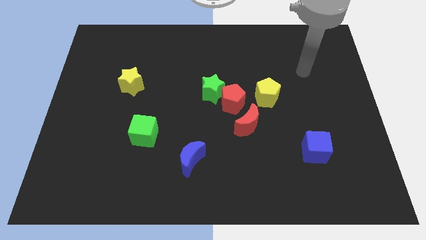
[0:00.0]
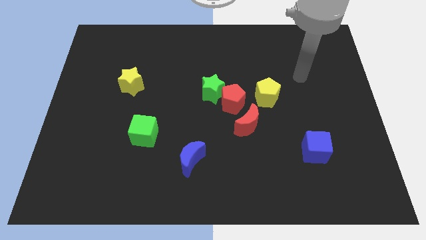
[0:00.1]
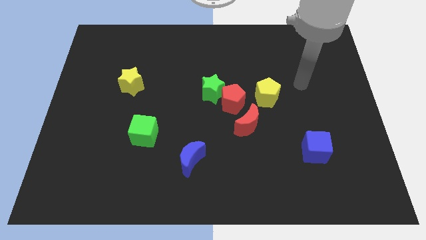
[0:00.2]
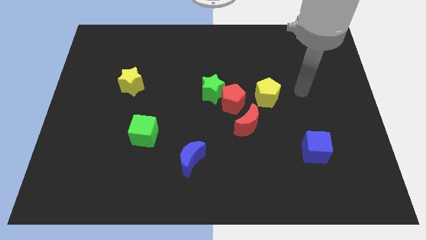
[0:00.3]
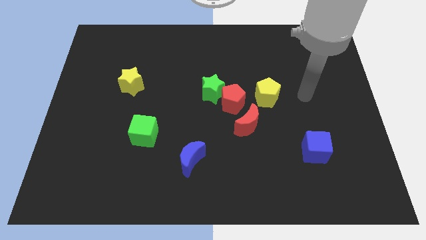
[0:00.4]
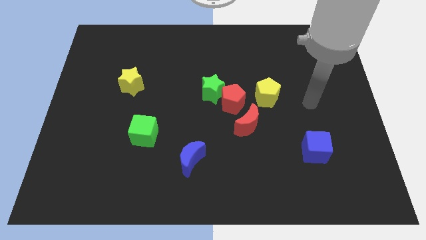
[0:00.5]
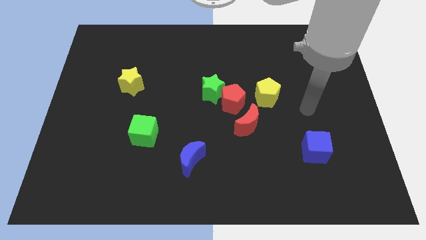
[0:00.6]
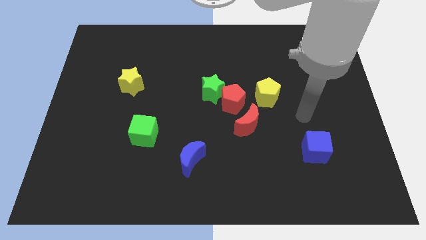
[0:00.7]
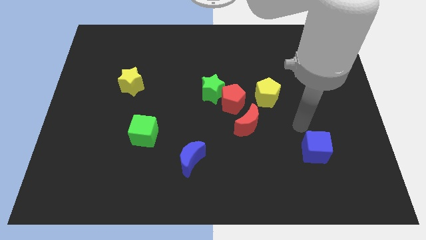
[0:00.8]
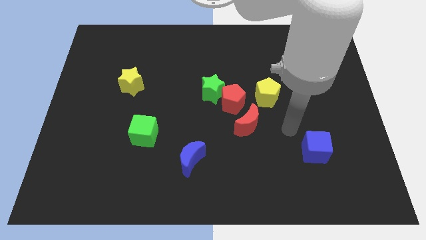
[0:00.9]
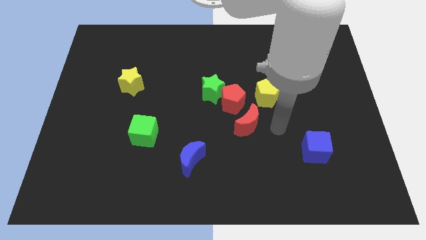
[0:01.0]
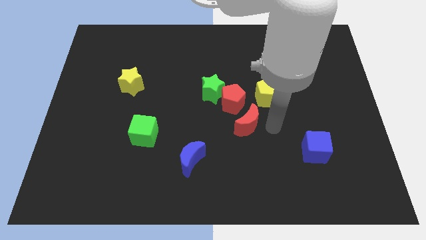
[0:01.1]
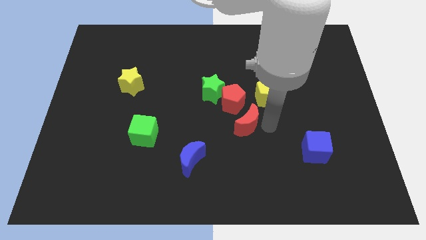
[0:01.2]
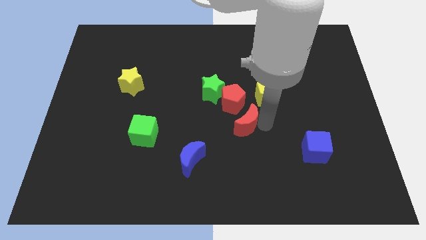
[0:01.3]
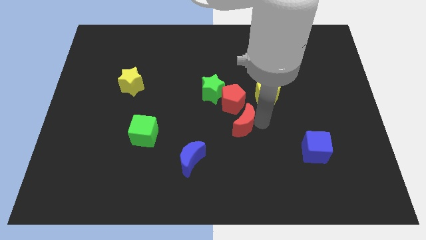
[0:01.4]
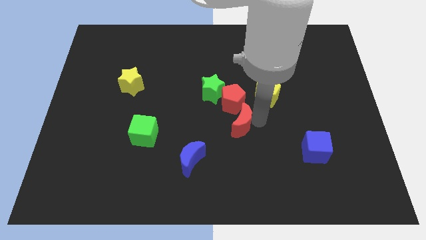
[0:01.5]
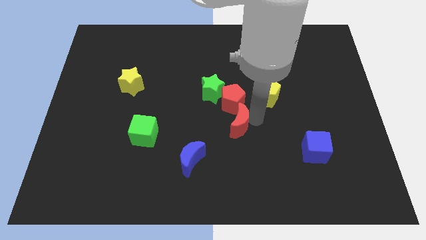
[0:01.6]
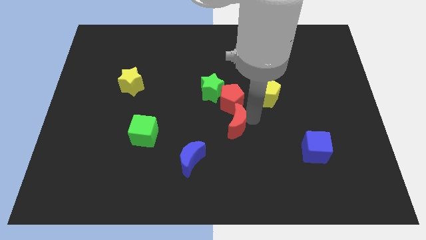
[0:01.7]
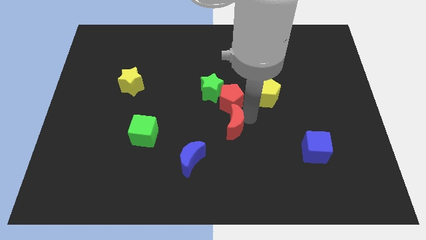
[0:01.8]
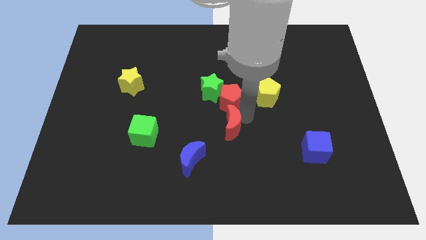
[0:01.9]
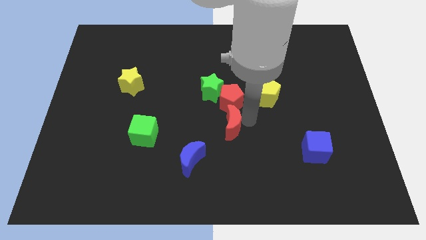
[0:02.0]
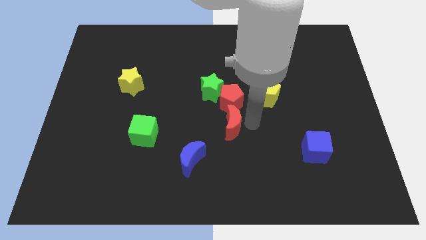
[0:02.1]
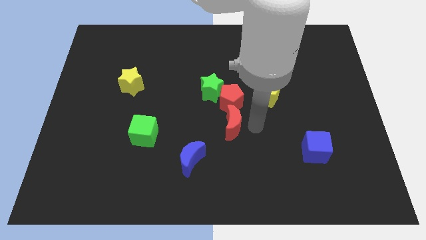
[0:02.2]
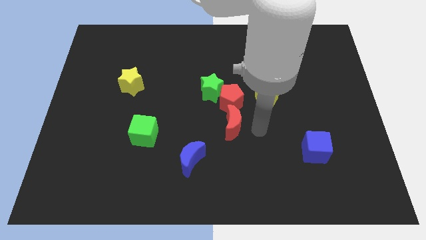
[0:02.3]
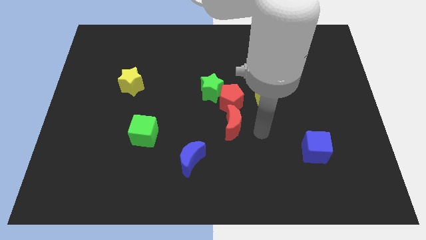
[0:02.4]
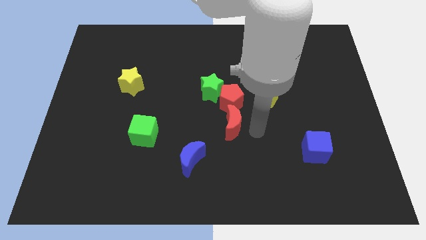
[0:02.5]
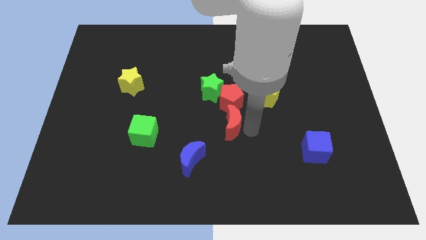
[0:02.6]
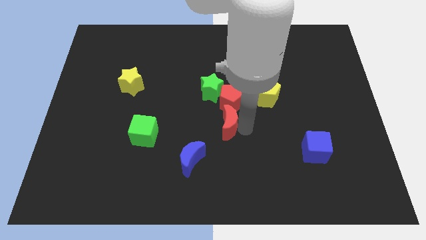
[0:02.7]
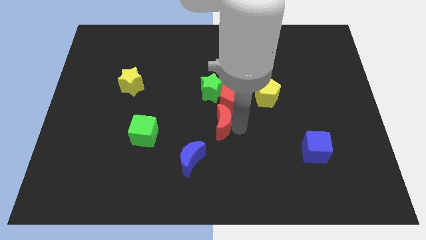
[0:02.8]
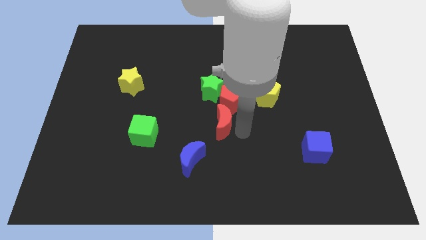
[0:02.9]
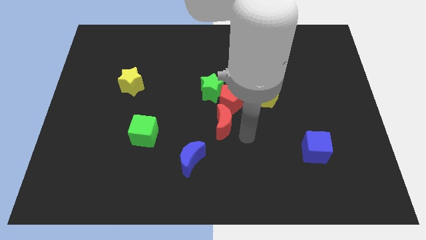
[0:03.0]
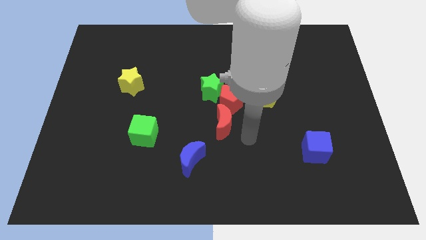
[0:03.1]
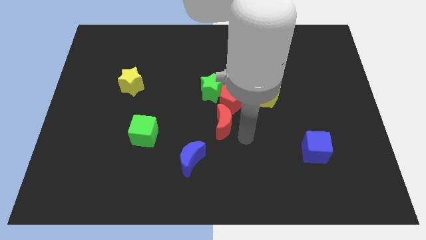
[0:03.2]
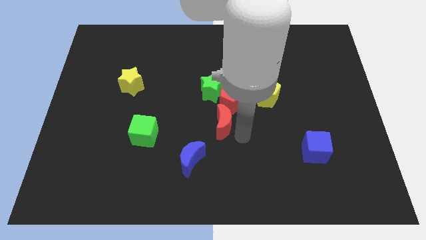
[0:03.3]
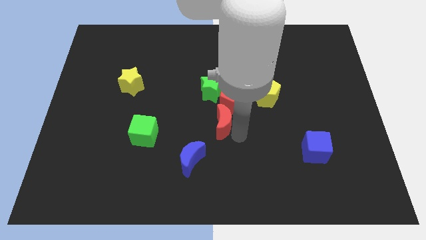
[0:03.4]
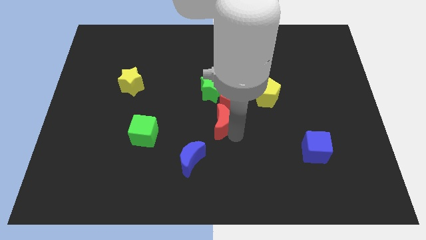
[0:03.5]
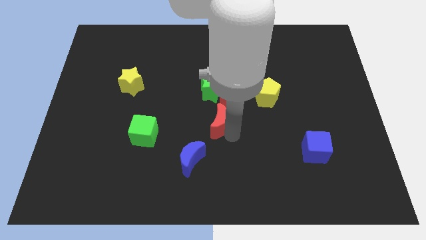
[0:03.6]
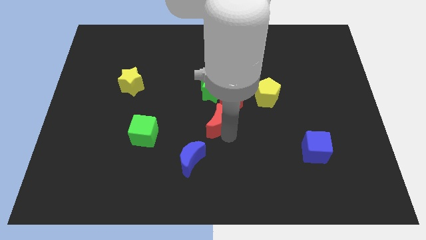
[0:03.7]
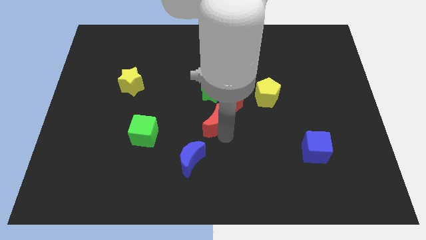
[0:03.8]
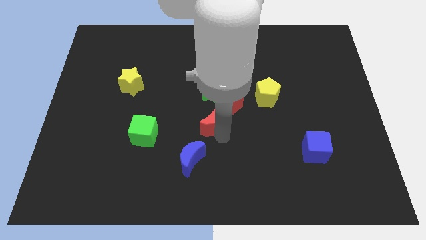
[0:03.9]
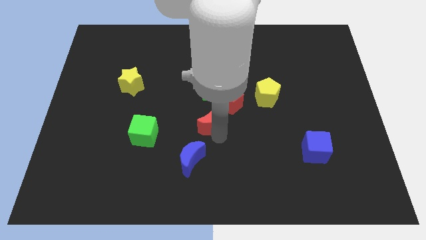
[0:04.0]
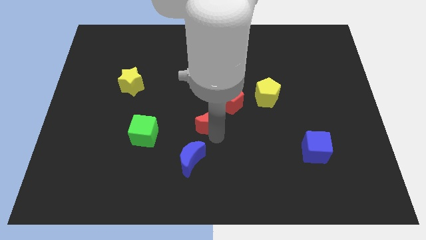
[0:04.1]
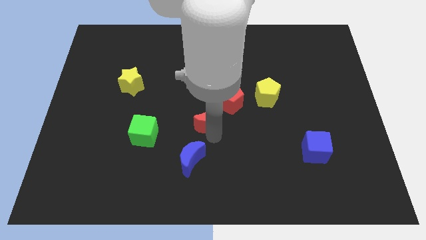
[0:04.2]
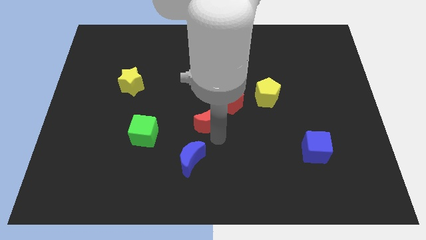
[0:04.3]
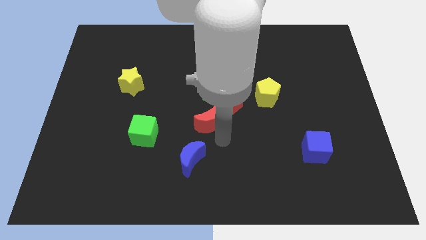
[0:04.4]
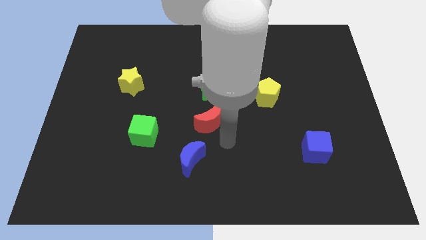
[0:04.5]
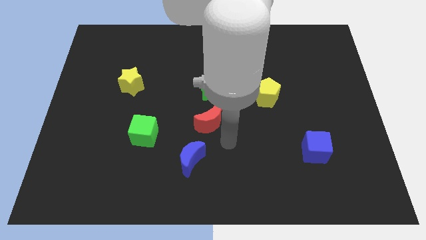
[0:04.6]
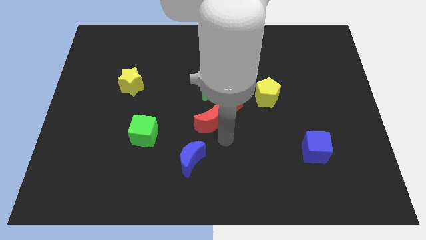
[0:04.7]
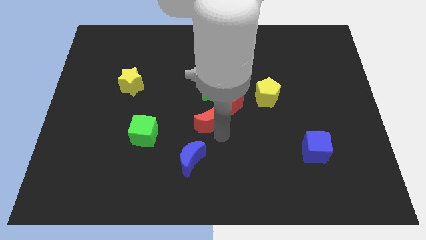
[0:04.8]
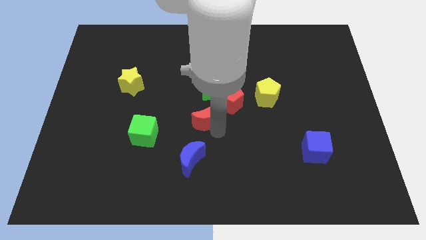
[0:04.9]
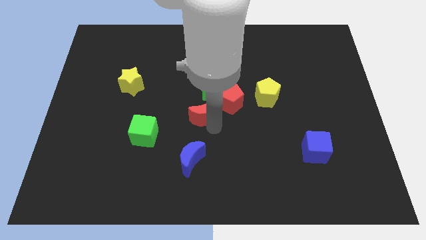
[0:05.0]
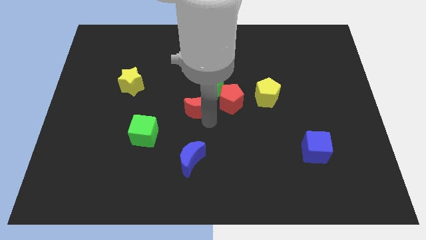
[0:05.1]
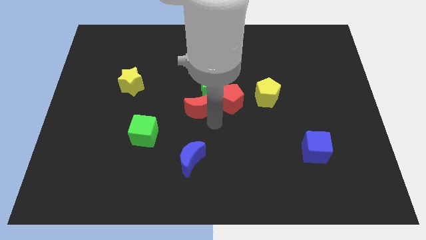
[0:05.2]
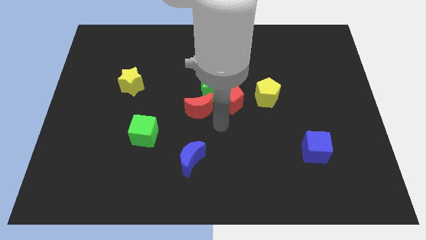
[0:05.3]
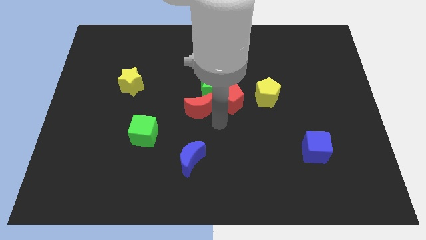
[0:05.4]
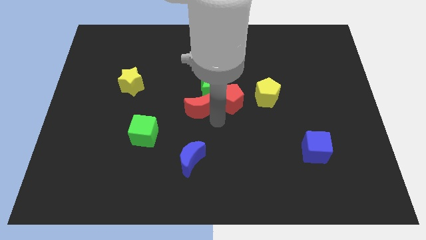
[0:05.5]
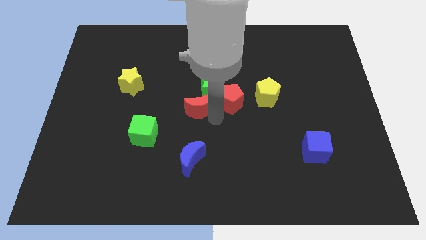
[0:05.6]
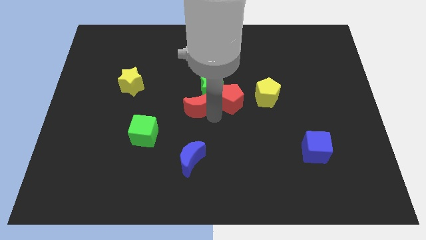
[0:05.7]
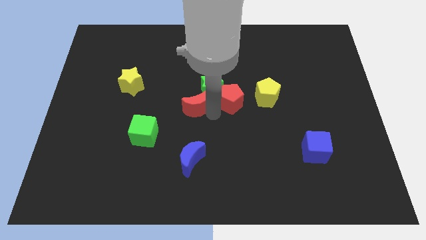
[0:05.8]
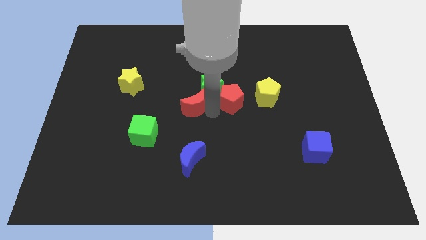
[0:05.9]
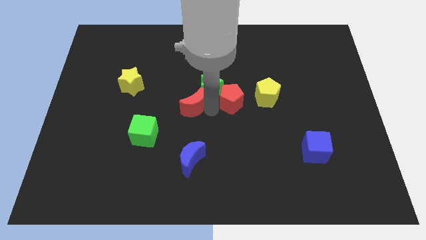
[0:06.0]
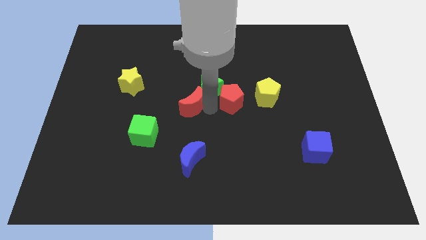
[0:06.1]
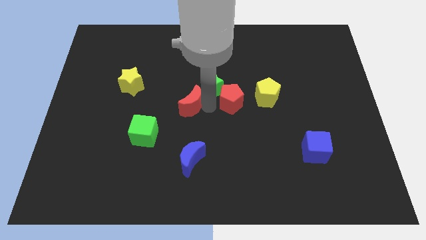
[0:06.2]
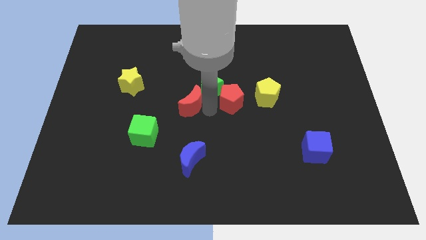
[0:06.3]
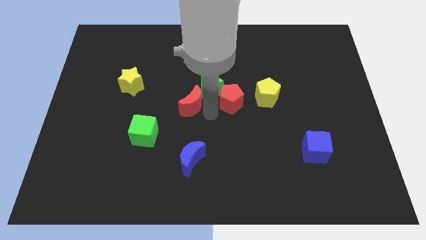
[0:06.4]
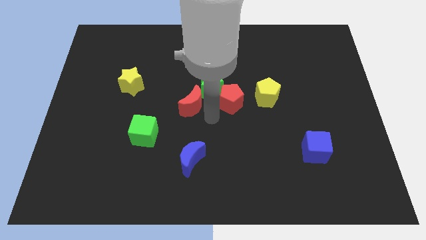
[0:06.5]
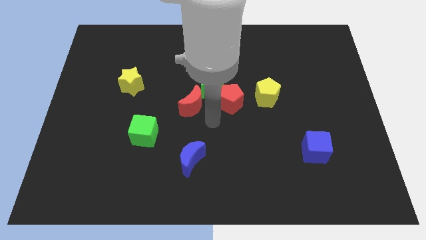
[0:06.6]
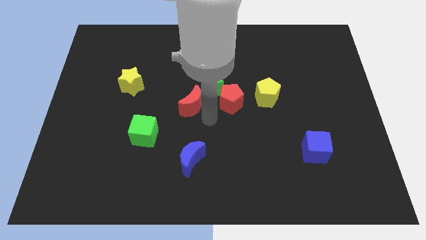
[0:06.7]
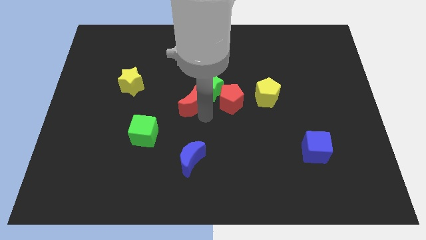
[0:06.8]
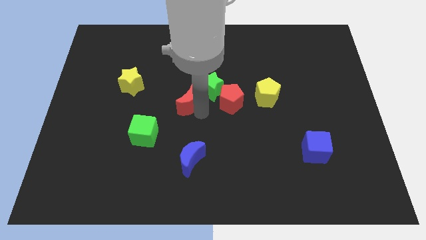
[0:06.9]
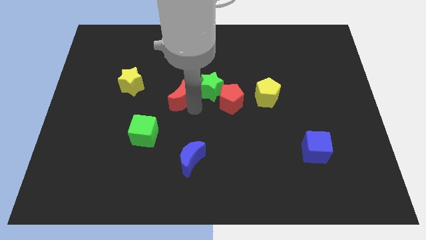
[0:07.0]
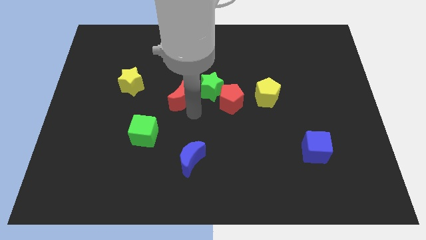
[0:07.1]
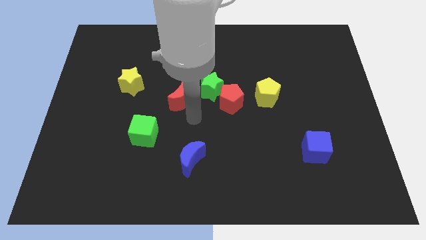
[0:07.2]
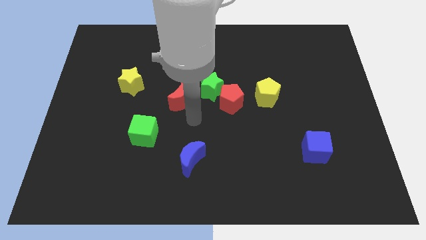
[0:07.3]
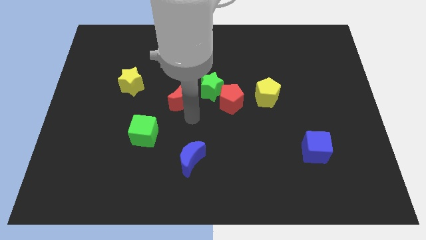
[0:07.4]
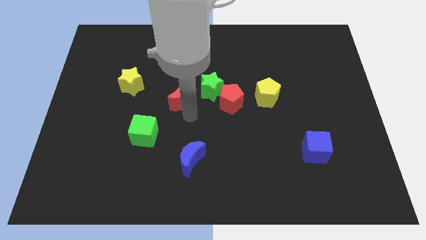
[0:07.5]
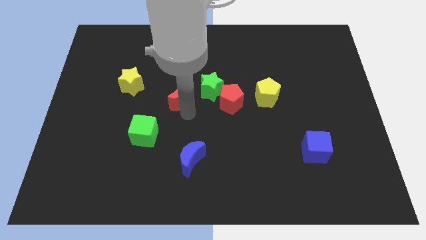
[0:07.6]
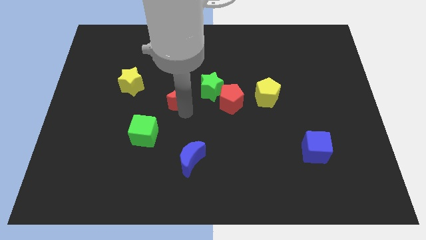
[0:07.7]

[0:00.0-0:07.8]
move the red moon just right of the yellow star

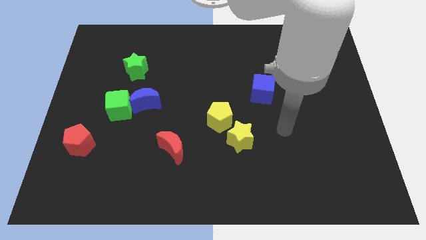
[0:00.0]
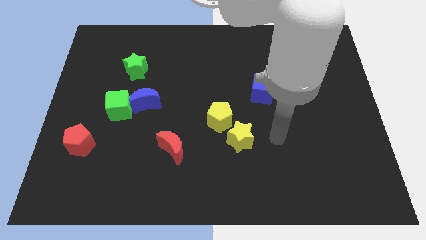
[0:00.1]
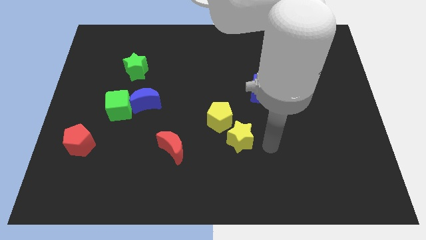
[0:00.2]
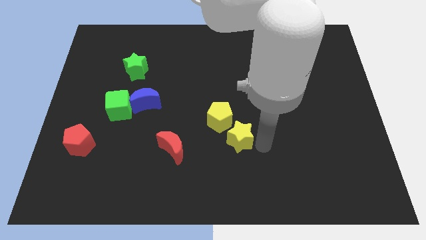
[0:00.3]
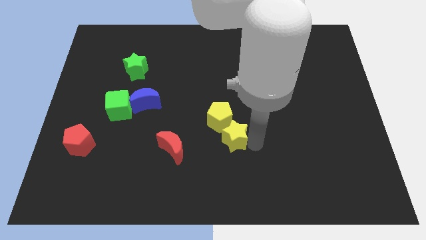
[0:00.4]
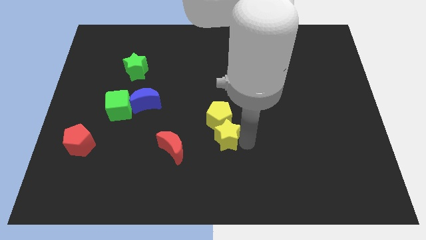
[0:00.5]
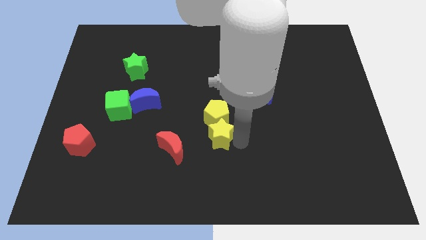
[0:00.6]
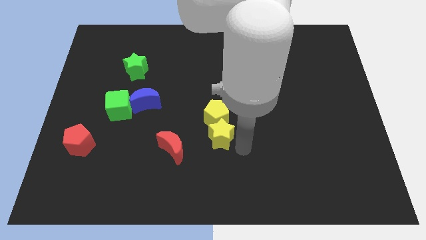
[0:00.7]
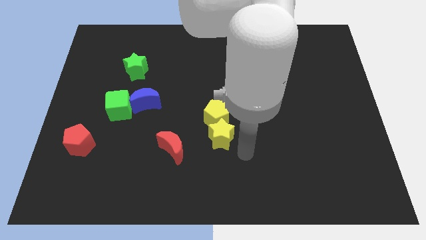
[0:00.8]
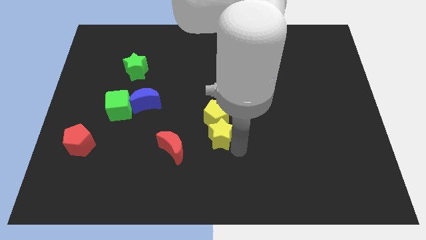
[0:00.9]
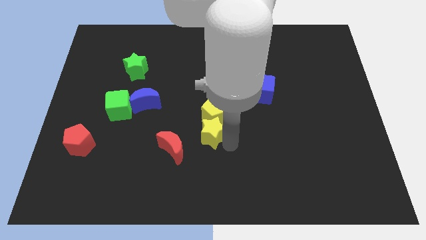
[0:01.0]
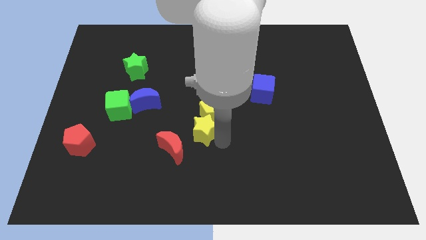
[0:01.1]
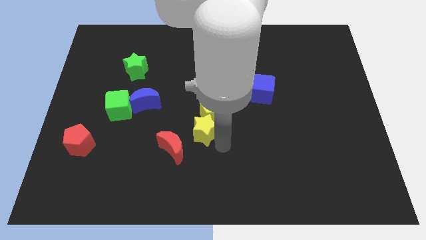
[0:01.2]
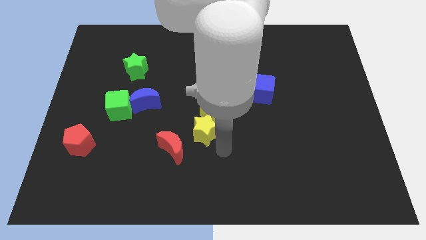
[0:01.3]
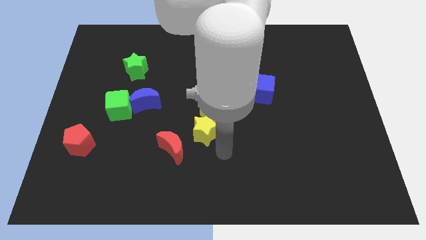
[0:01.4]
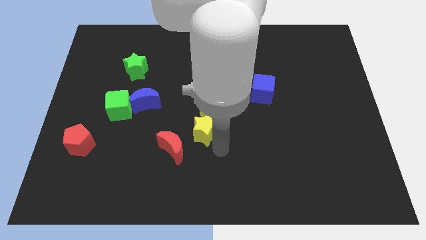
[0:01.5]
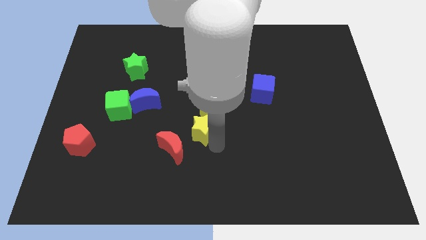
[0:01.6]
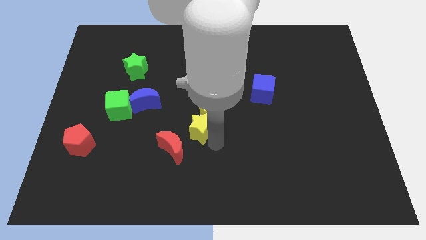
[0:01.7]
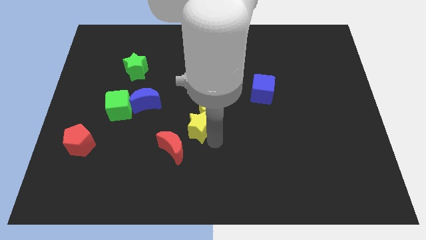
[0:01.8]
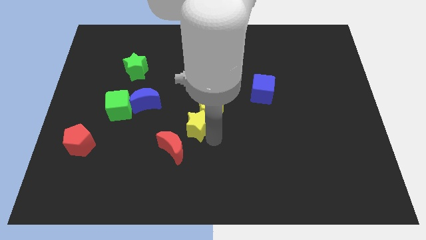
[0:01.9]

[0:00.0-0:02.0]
slide the yellow star to the top of the red moon
